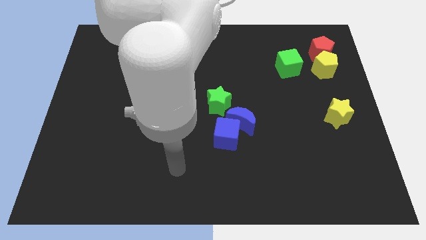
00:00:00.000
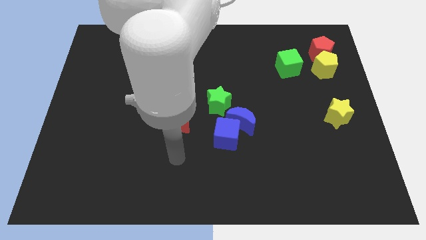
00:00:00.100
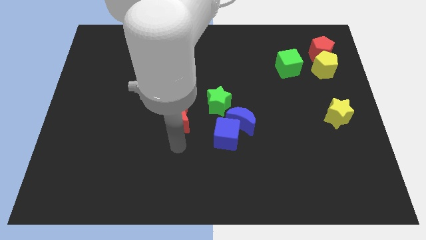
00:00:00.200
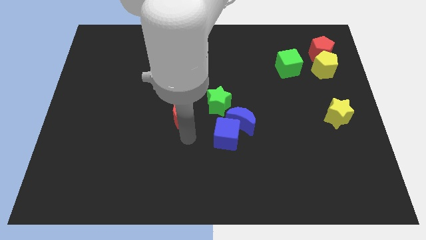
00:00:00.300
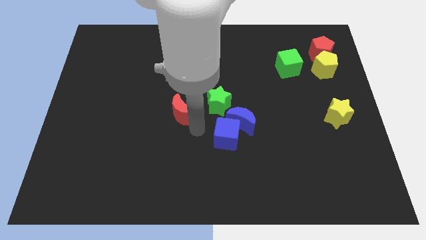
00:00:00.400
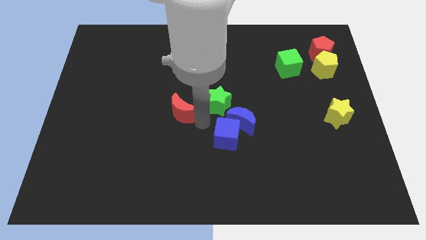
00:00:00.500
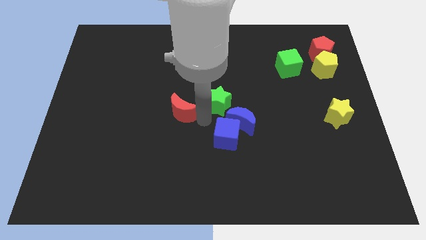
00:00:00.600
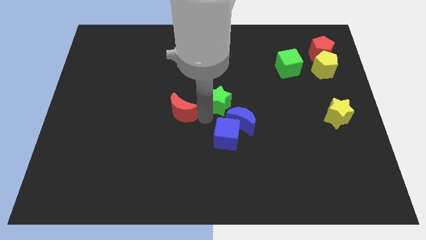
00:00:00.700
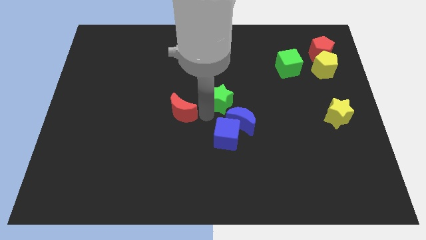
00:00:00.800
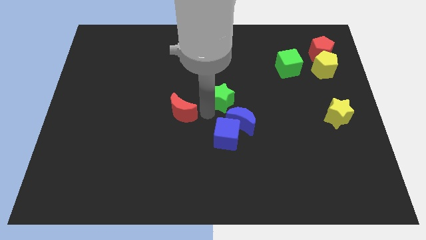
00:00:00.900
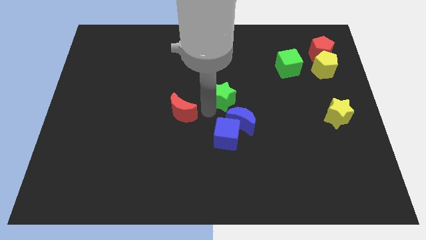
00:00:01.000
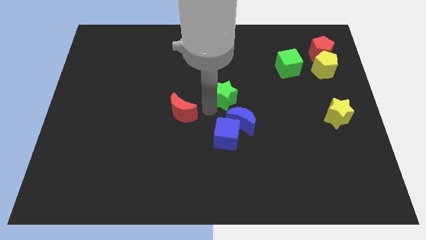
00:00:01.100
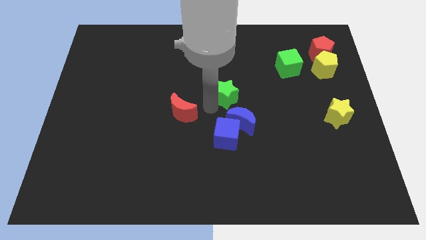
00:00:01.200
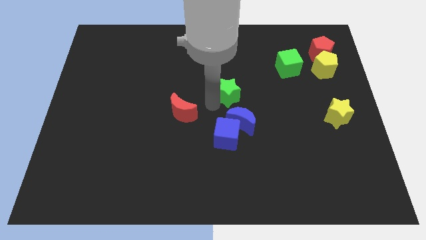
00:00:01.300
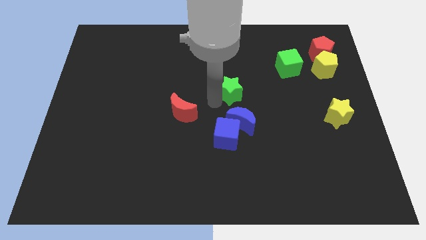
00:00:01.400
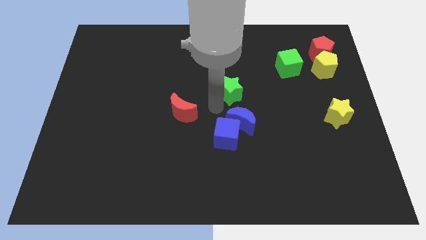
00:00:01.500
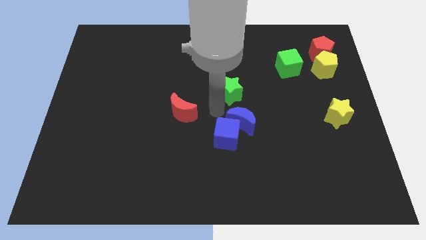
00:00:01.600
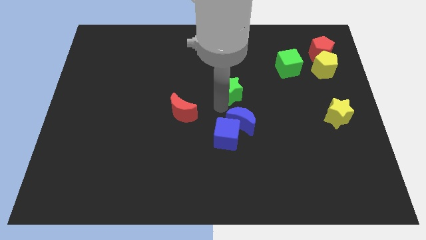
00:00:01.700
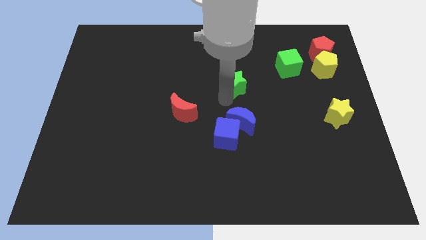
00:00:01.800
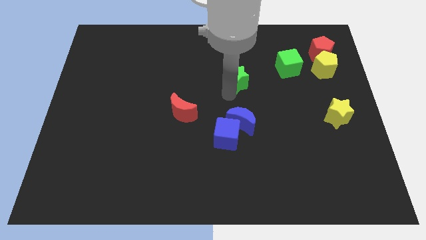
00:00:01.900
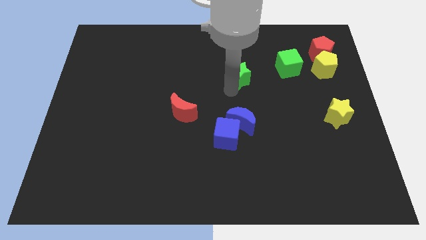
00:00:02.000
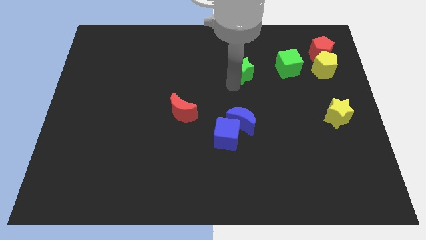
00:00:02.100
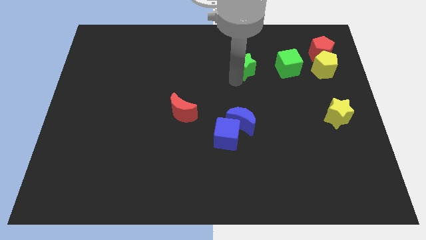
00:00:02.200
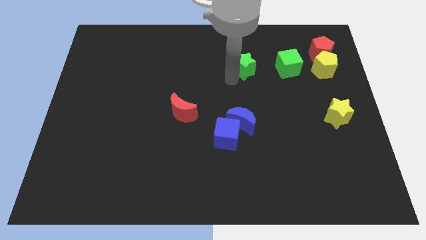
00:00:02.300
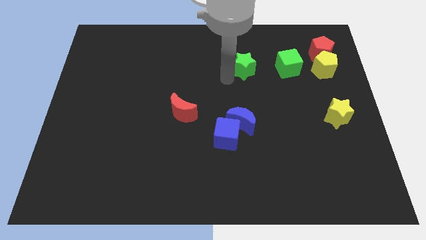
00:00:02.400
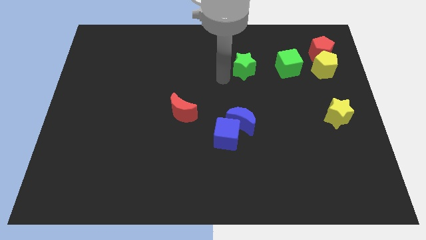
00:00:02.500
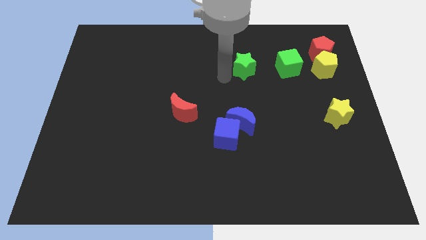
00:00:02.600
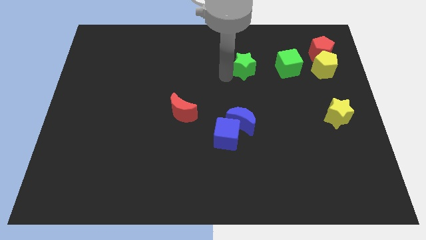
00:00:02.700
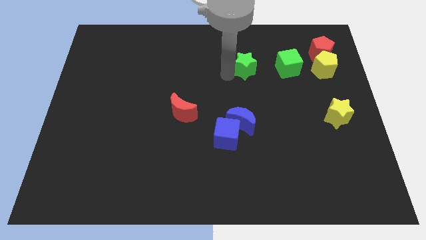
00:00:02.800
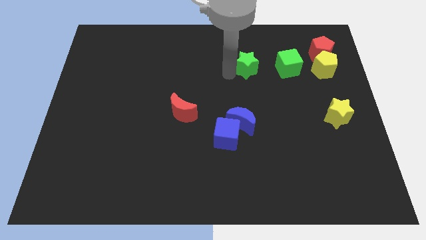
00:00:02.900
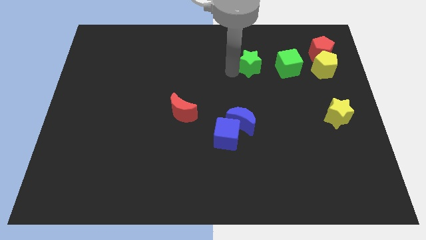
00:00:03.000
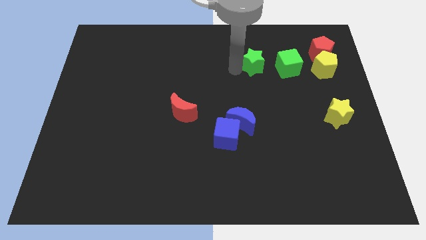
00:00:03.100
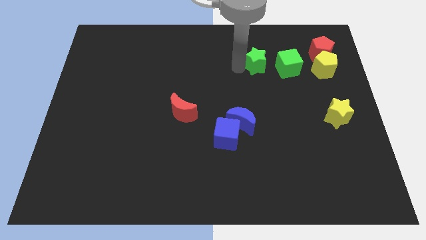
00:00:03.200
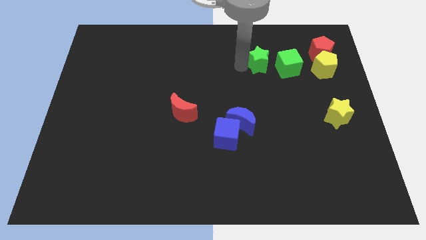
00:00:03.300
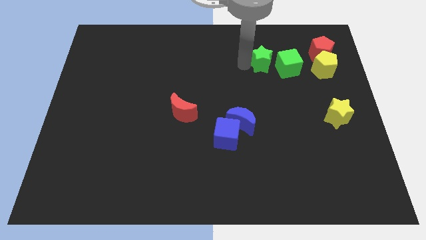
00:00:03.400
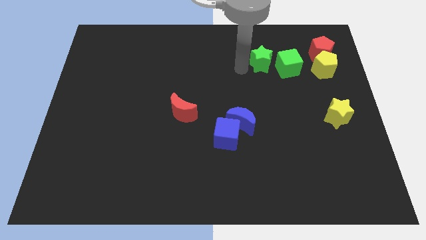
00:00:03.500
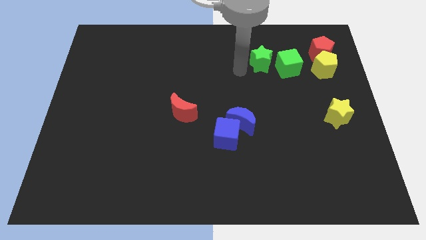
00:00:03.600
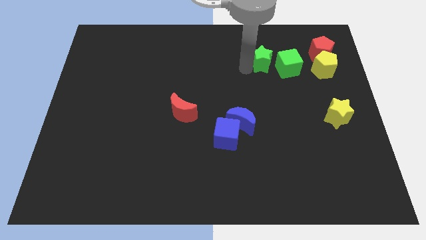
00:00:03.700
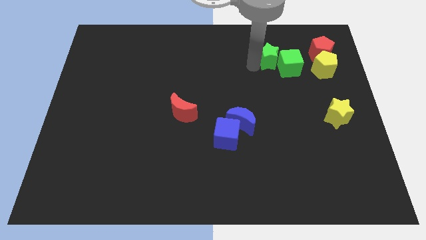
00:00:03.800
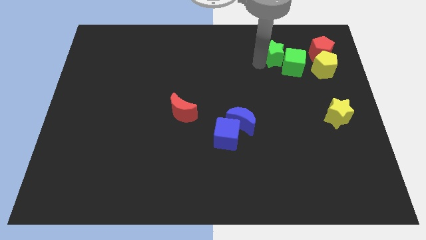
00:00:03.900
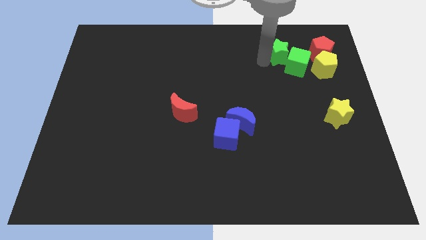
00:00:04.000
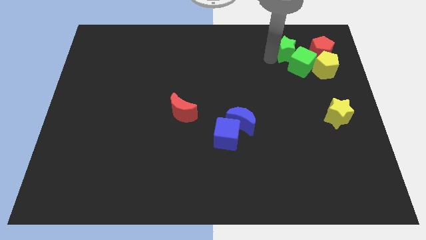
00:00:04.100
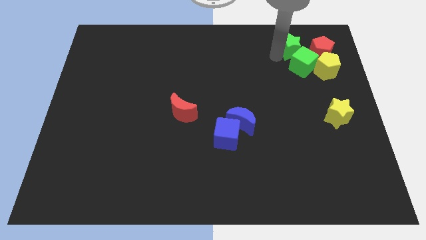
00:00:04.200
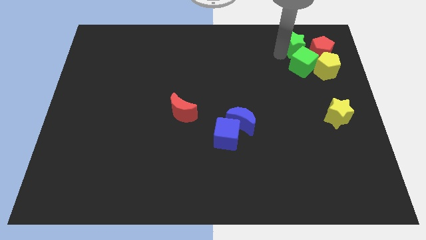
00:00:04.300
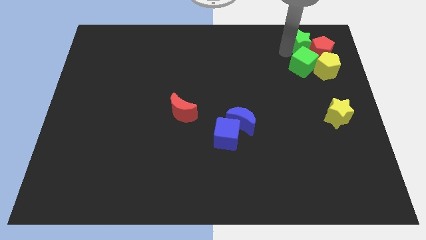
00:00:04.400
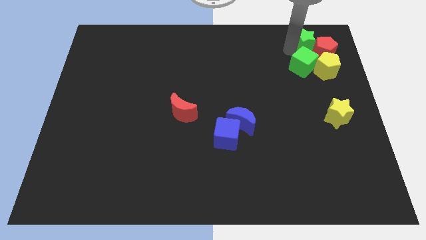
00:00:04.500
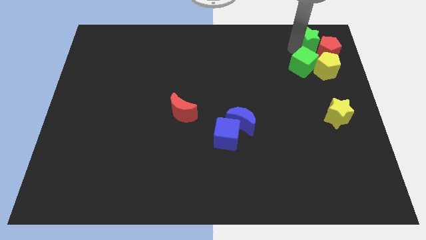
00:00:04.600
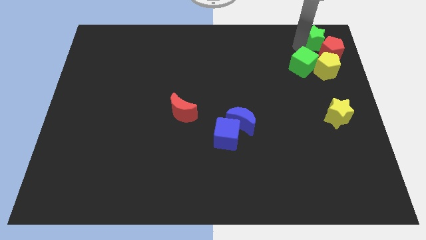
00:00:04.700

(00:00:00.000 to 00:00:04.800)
move the green star to the upper right corner

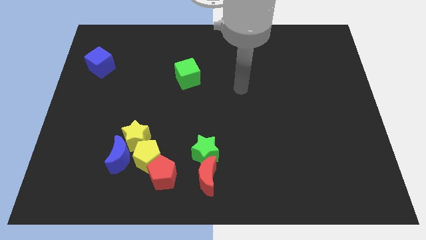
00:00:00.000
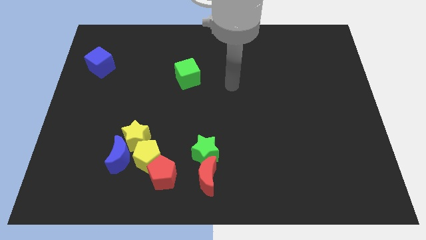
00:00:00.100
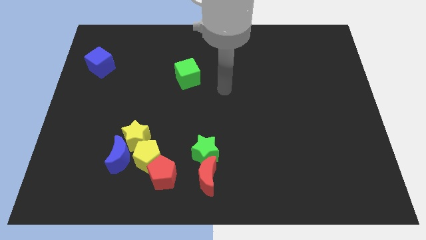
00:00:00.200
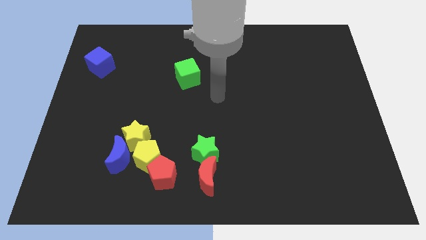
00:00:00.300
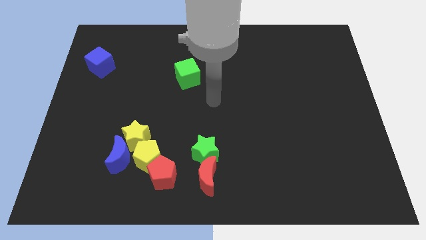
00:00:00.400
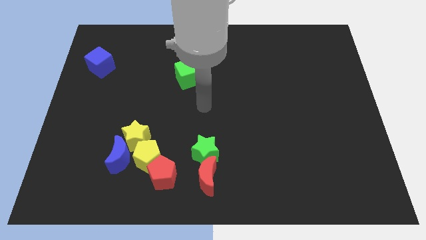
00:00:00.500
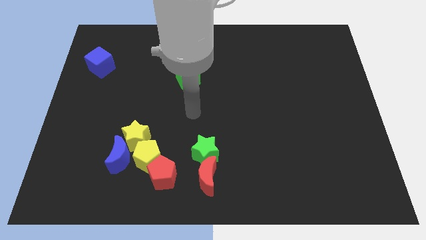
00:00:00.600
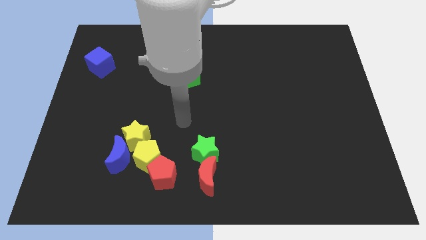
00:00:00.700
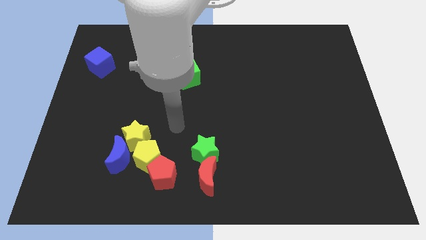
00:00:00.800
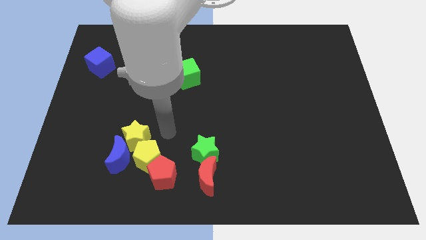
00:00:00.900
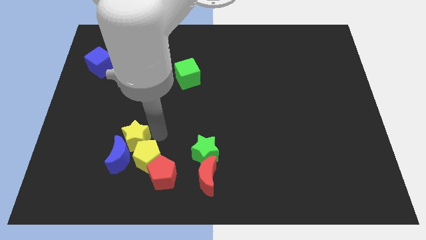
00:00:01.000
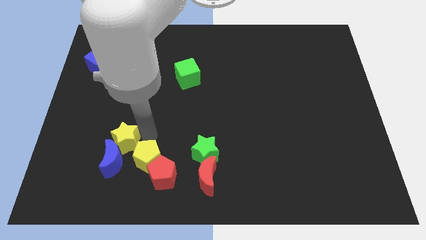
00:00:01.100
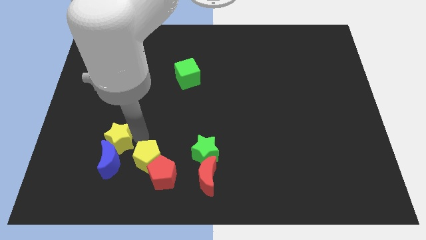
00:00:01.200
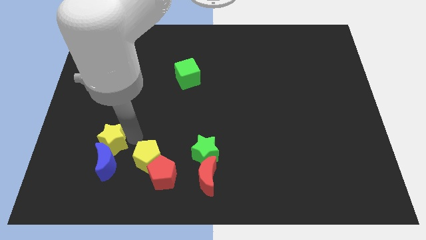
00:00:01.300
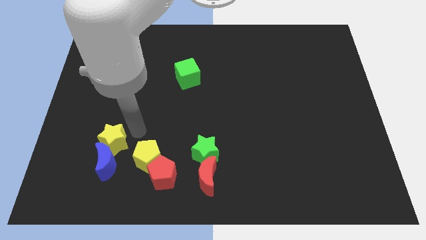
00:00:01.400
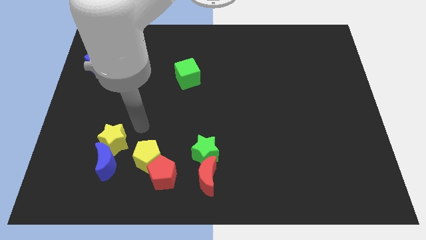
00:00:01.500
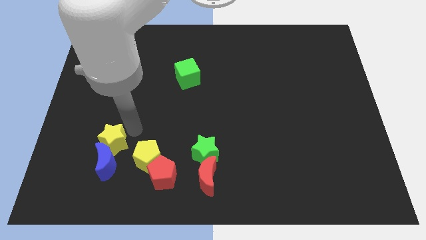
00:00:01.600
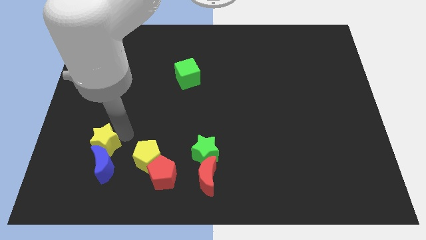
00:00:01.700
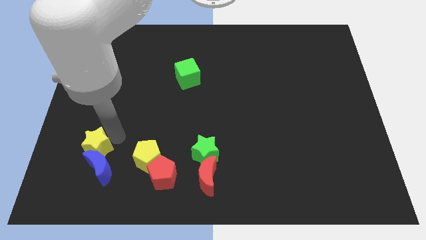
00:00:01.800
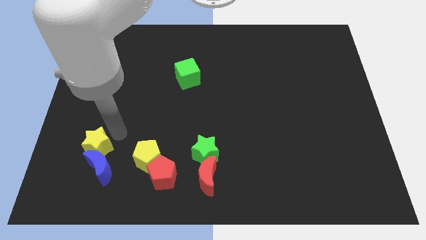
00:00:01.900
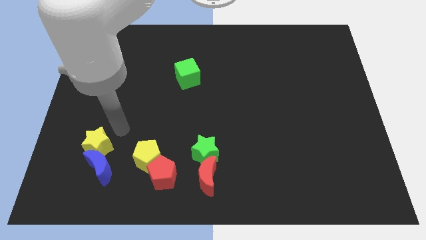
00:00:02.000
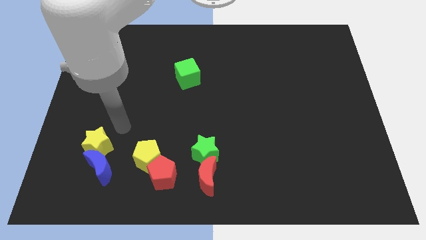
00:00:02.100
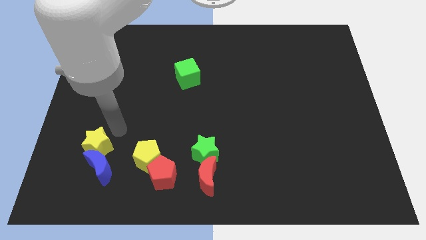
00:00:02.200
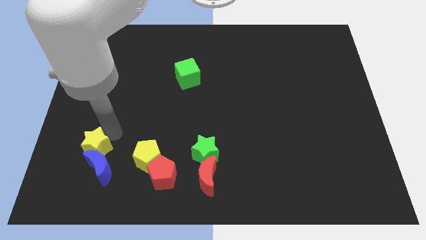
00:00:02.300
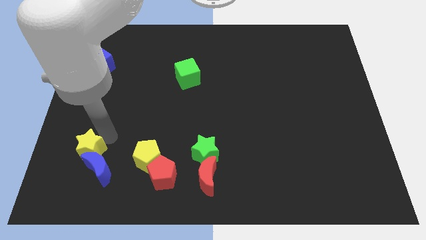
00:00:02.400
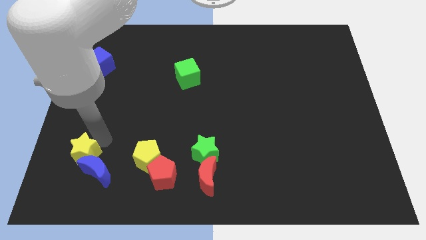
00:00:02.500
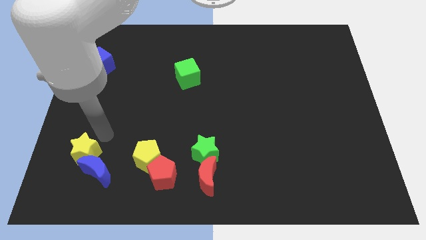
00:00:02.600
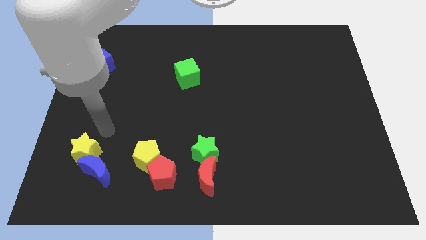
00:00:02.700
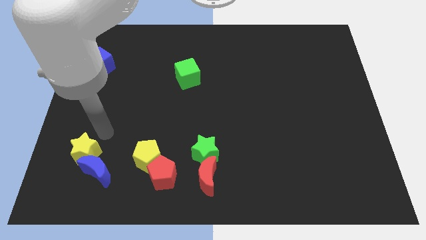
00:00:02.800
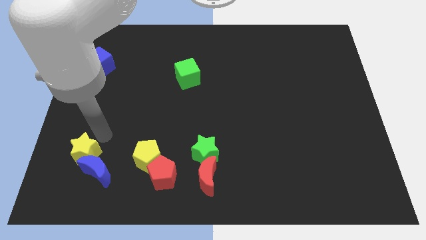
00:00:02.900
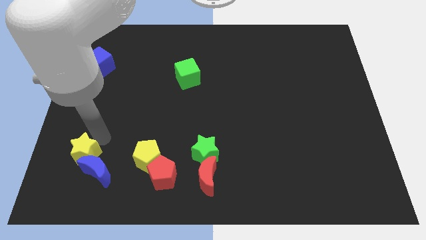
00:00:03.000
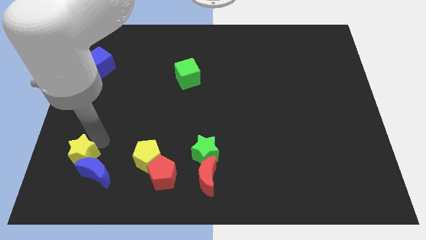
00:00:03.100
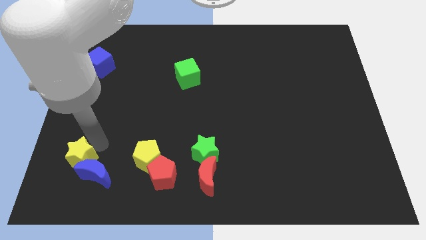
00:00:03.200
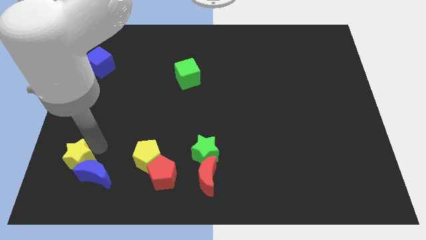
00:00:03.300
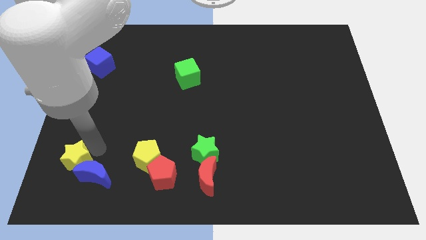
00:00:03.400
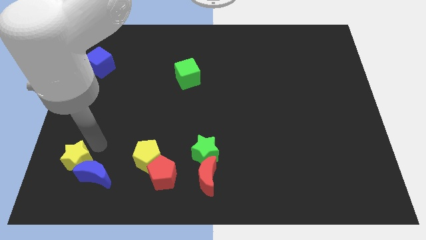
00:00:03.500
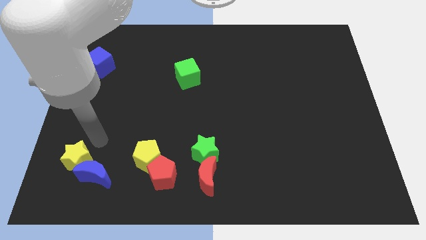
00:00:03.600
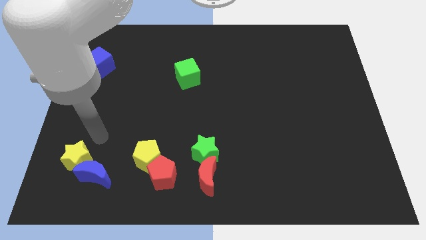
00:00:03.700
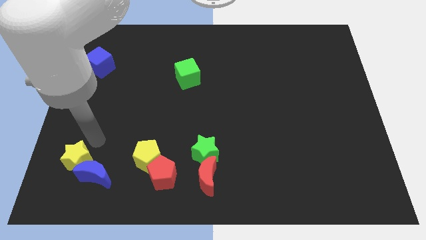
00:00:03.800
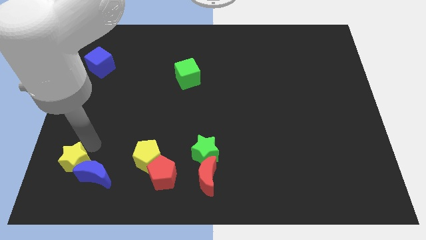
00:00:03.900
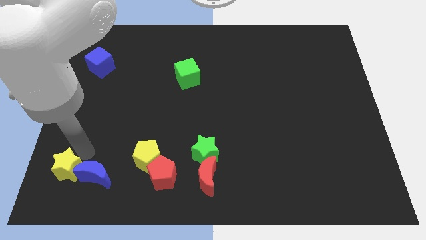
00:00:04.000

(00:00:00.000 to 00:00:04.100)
put the yellow star to the bottom left of the board
